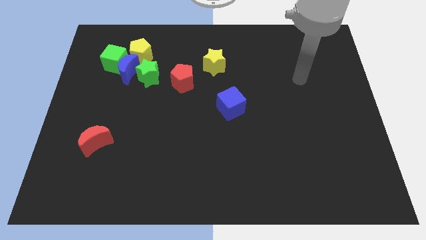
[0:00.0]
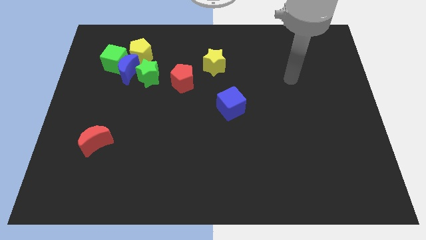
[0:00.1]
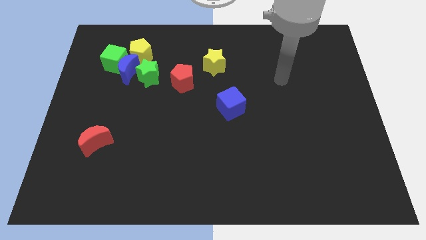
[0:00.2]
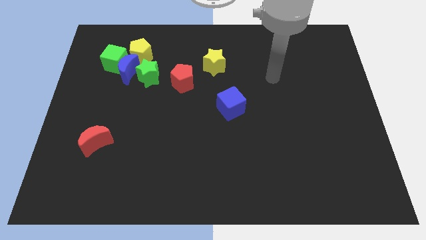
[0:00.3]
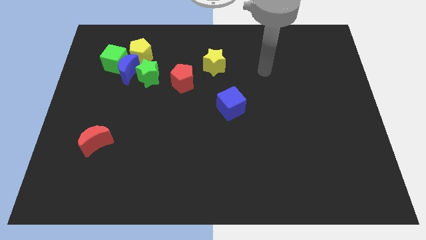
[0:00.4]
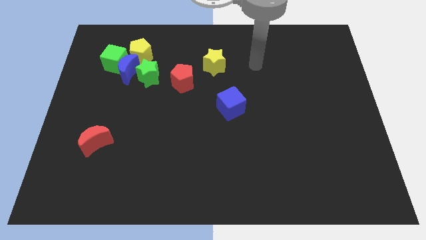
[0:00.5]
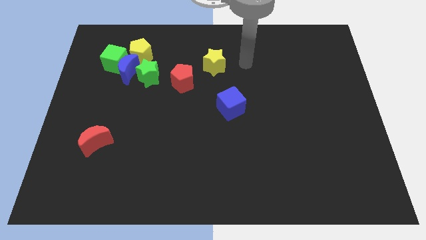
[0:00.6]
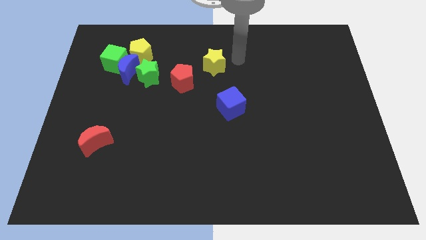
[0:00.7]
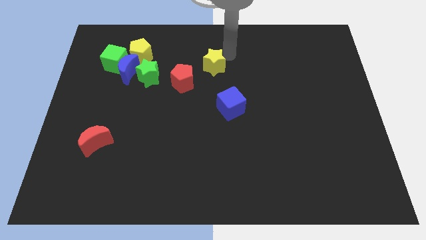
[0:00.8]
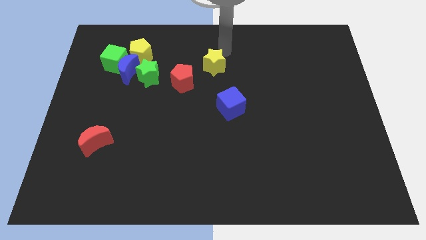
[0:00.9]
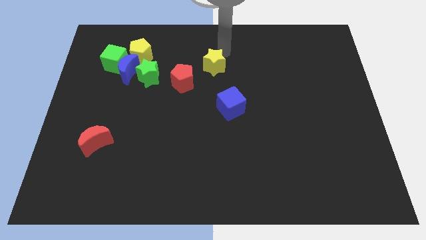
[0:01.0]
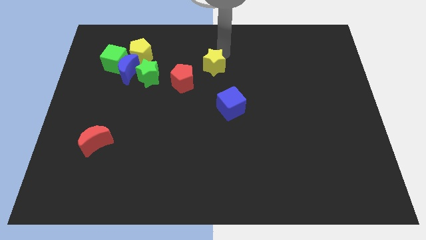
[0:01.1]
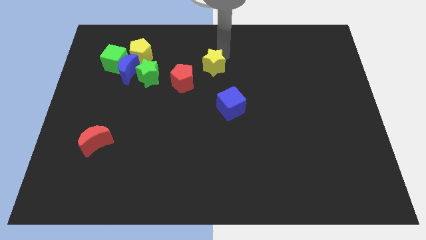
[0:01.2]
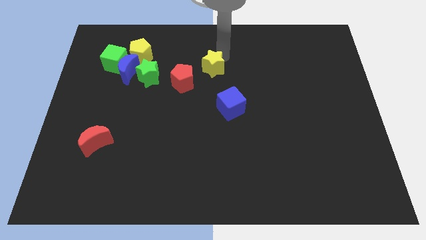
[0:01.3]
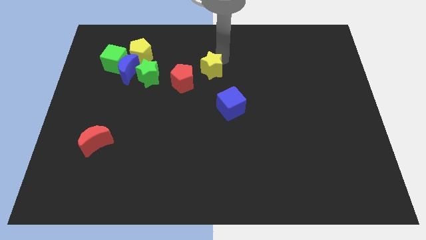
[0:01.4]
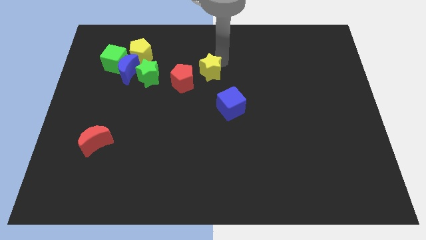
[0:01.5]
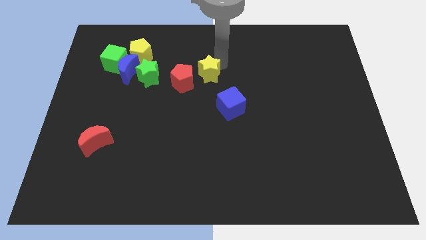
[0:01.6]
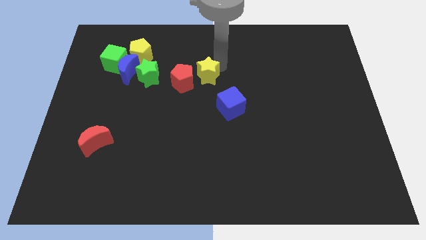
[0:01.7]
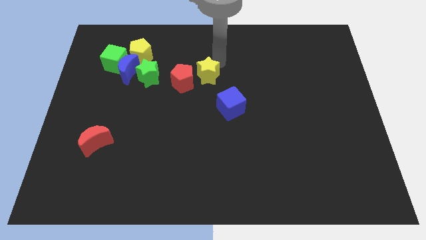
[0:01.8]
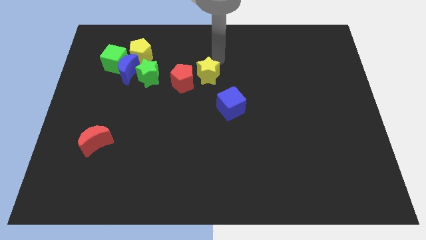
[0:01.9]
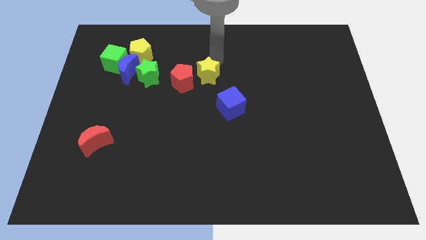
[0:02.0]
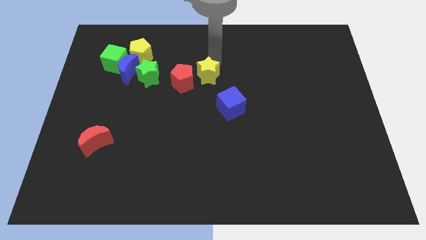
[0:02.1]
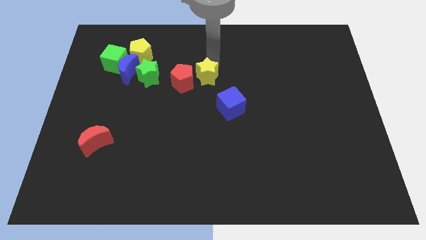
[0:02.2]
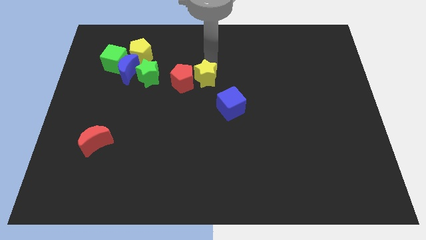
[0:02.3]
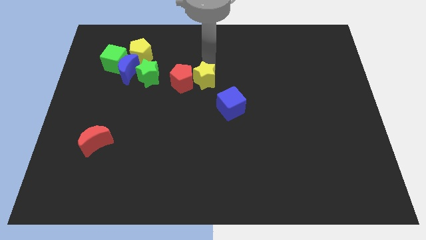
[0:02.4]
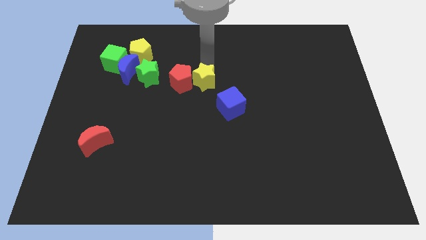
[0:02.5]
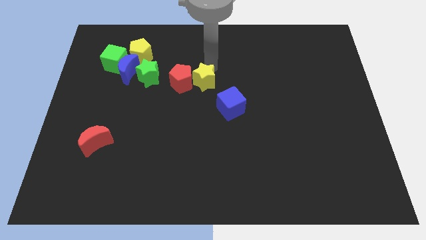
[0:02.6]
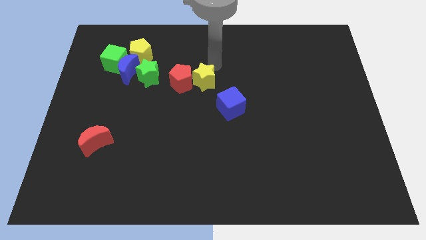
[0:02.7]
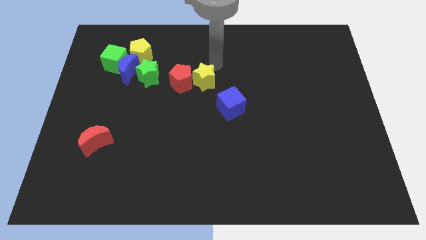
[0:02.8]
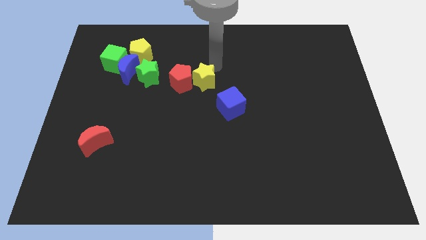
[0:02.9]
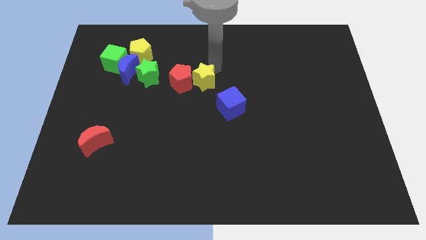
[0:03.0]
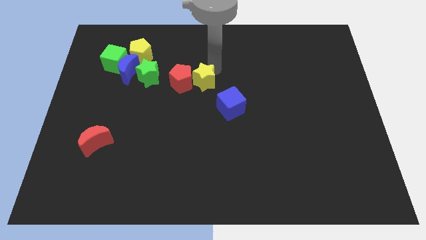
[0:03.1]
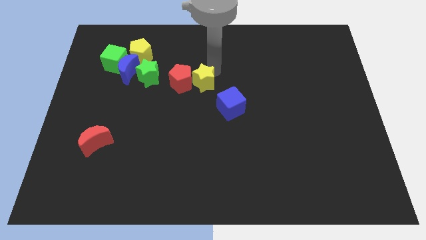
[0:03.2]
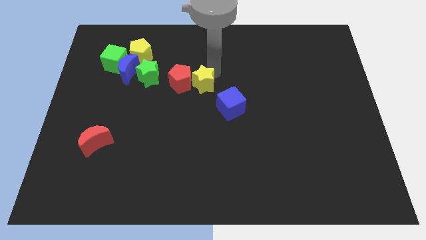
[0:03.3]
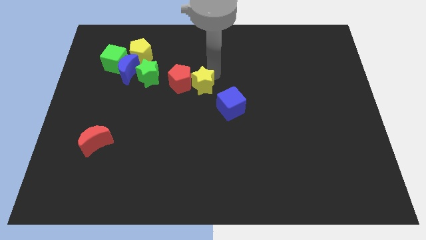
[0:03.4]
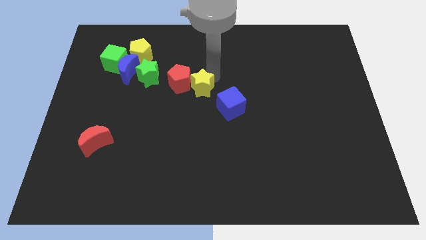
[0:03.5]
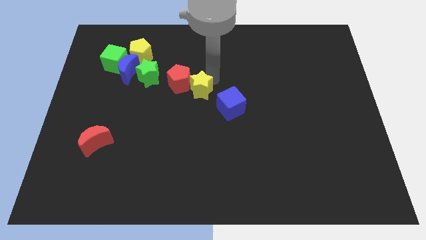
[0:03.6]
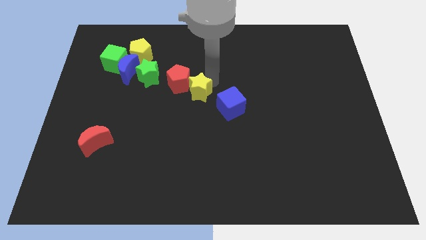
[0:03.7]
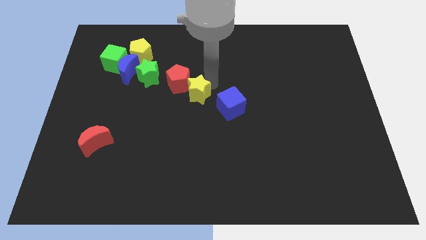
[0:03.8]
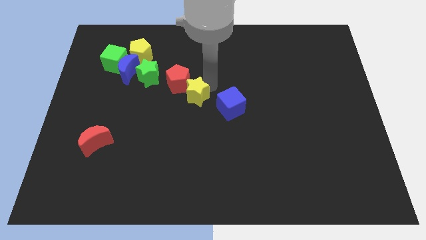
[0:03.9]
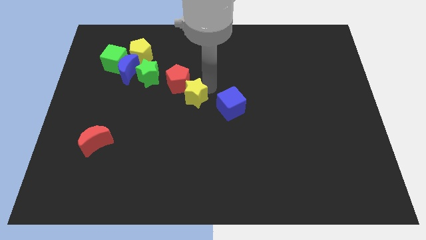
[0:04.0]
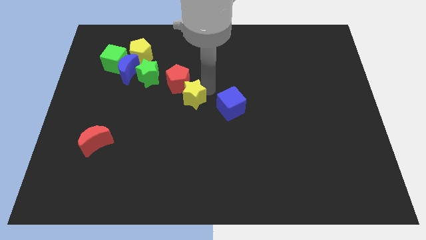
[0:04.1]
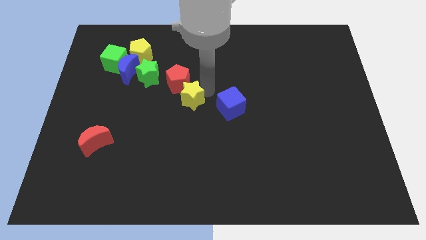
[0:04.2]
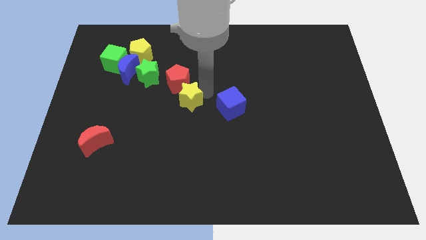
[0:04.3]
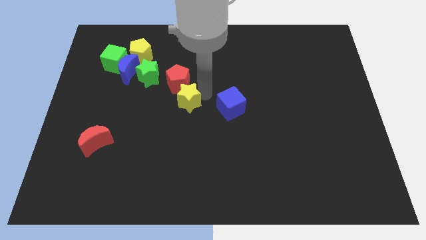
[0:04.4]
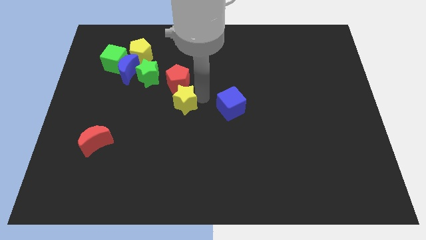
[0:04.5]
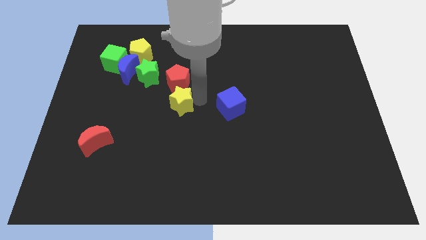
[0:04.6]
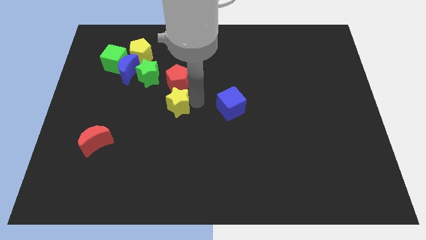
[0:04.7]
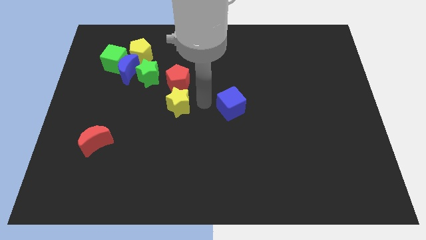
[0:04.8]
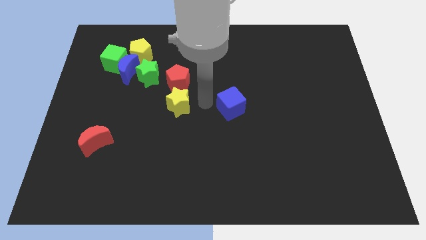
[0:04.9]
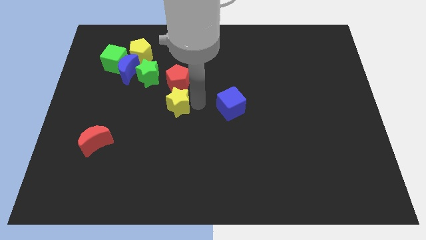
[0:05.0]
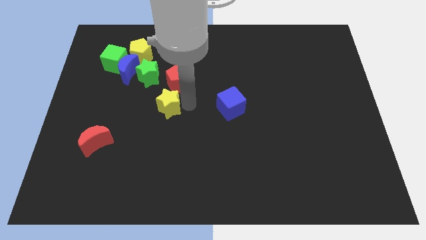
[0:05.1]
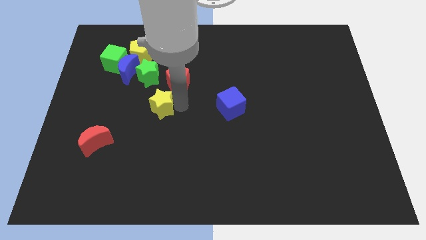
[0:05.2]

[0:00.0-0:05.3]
push the yellow star to the bottom side of the green star

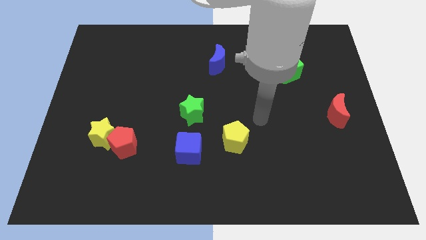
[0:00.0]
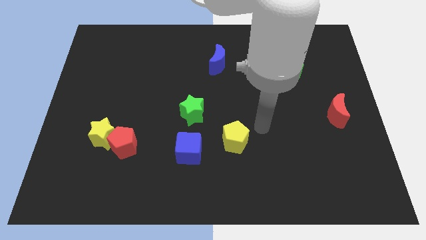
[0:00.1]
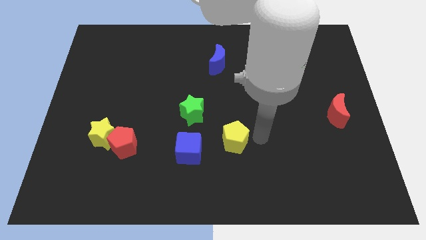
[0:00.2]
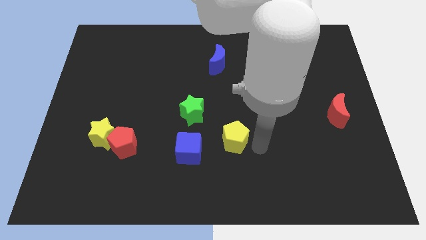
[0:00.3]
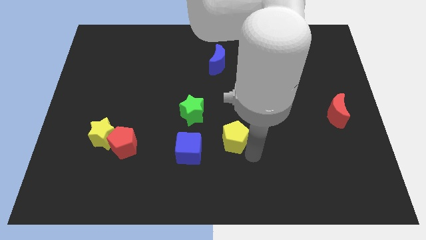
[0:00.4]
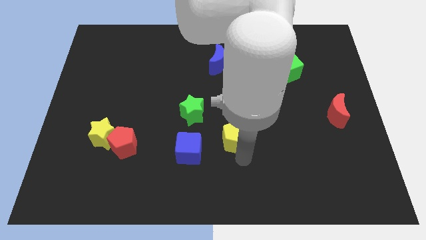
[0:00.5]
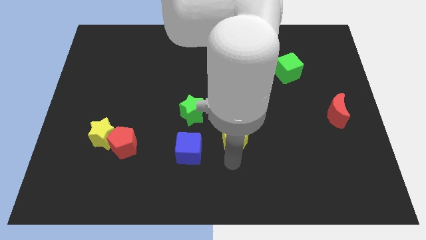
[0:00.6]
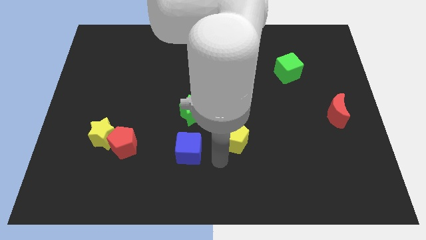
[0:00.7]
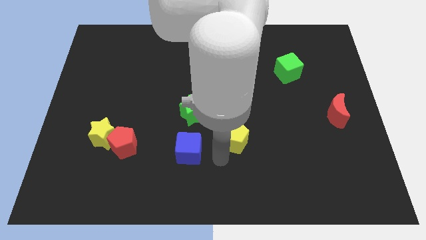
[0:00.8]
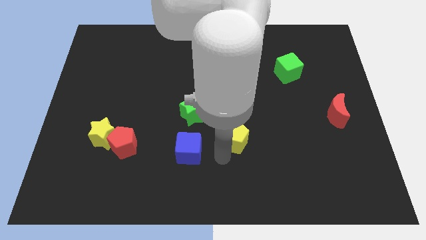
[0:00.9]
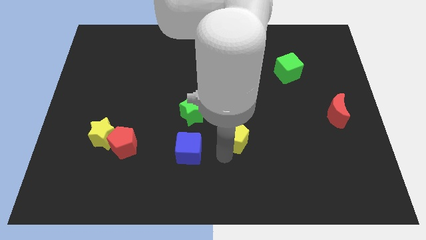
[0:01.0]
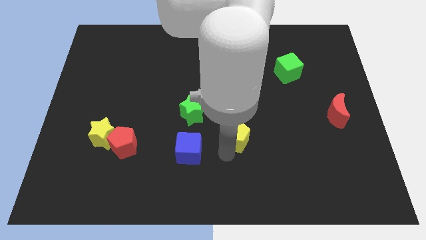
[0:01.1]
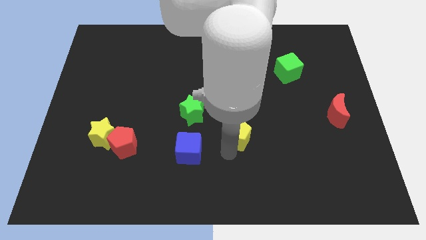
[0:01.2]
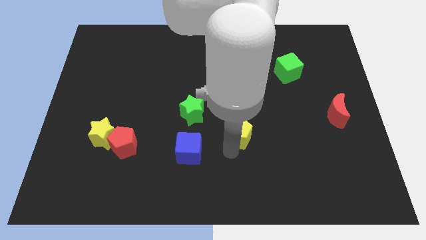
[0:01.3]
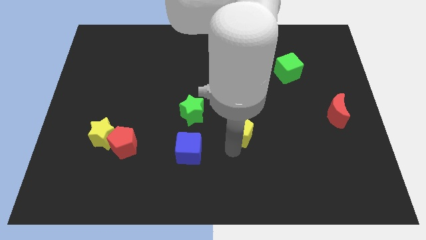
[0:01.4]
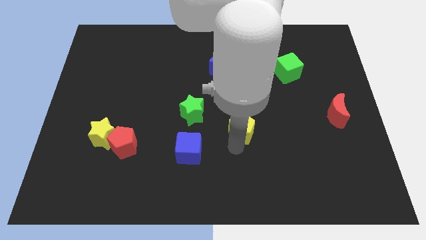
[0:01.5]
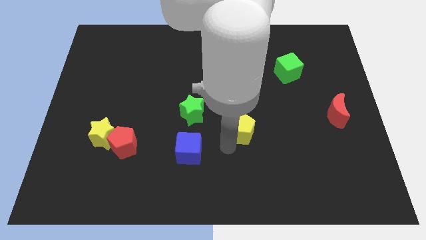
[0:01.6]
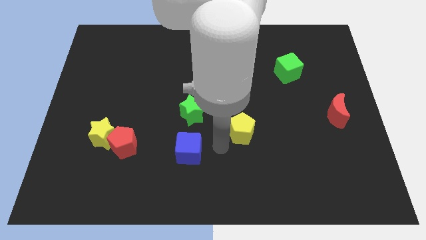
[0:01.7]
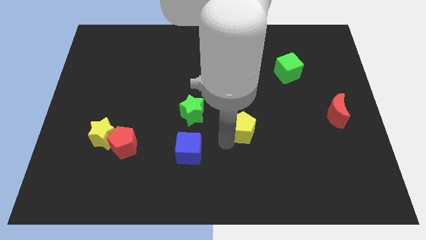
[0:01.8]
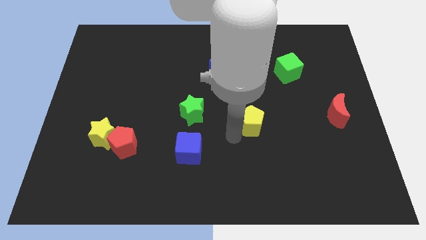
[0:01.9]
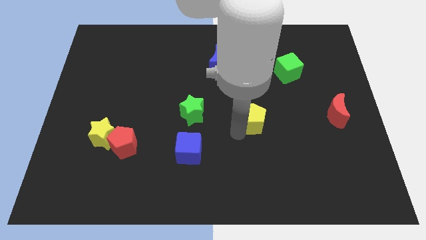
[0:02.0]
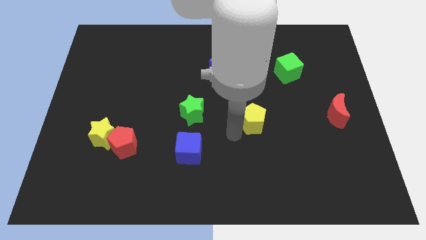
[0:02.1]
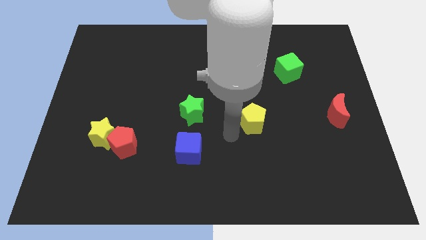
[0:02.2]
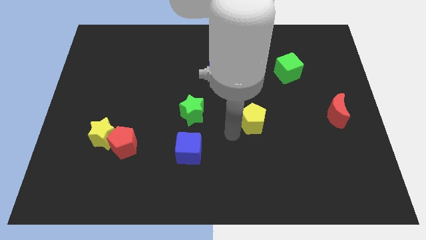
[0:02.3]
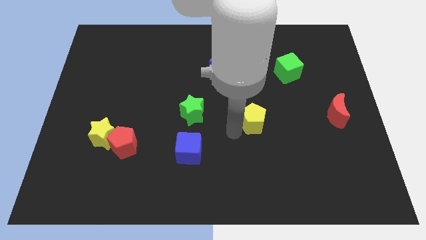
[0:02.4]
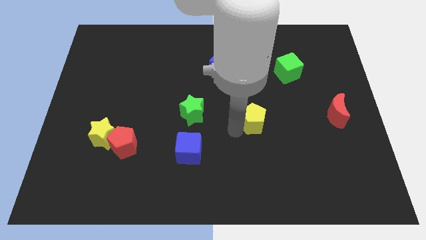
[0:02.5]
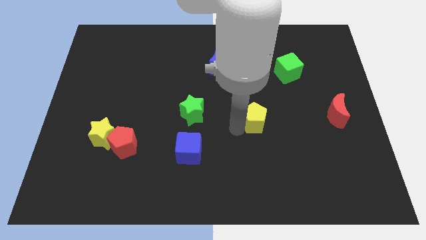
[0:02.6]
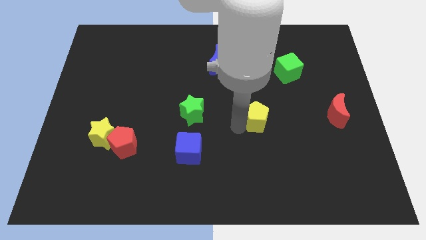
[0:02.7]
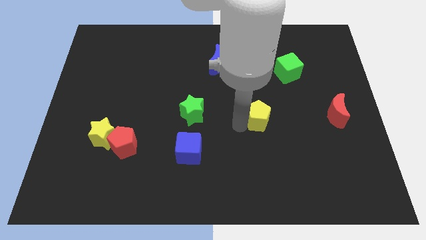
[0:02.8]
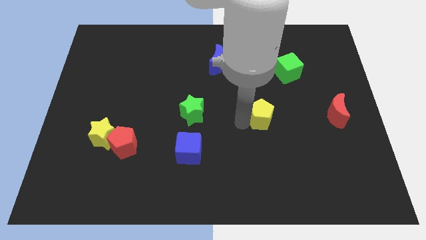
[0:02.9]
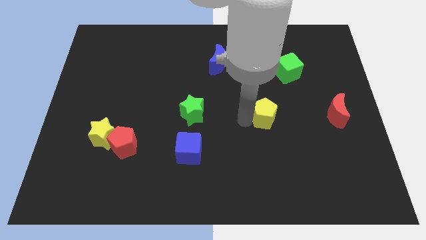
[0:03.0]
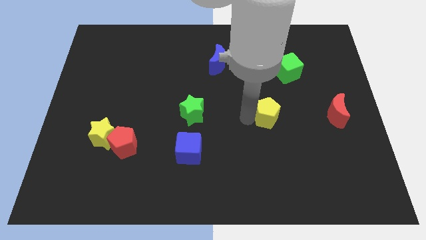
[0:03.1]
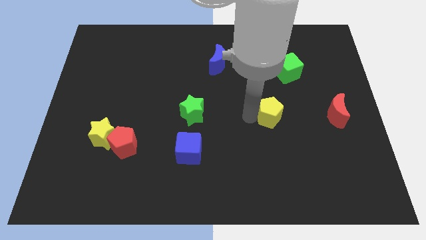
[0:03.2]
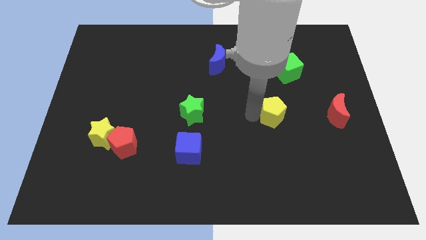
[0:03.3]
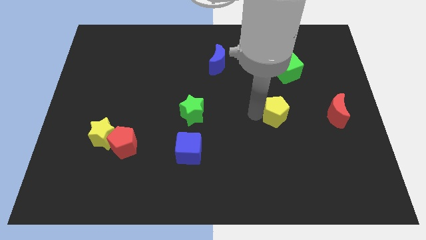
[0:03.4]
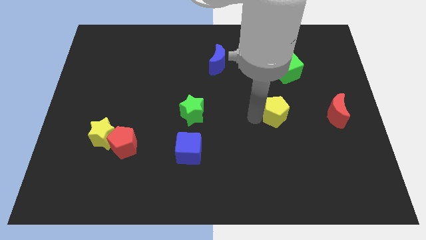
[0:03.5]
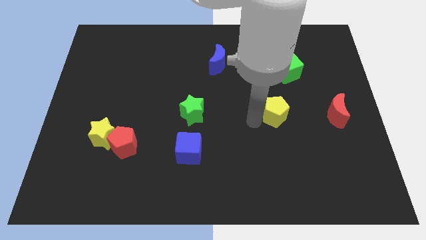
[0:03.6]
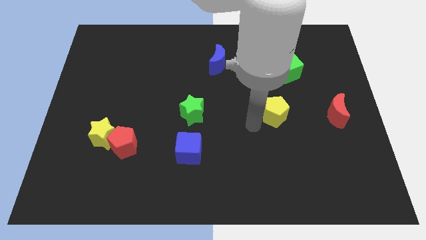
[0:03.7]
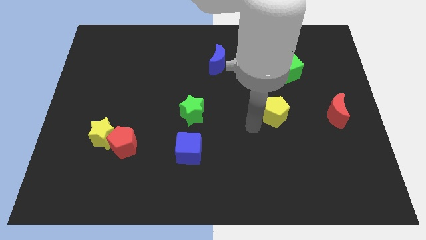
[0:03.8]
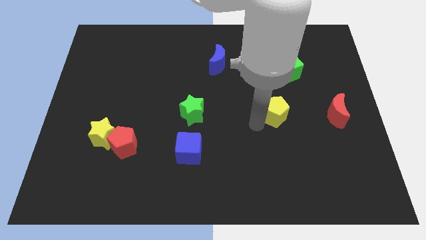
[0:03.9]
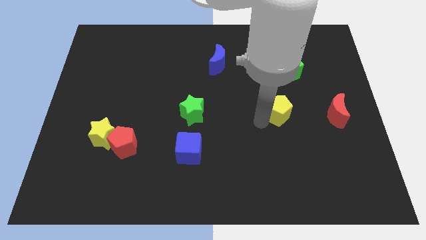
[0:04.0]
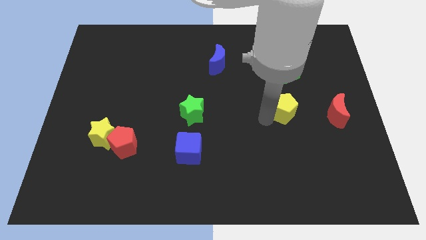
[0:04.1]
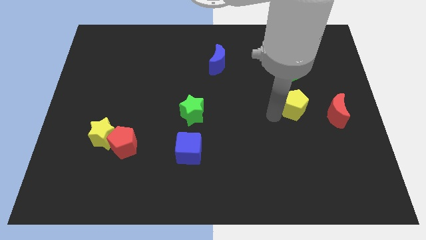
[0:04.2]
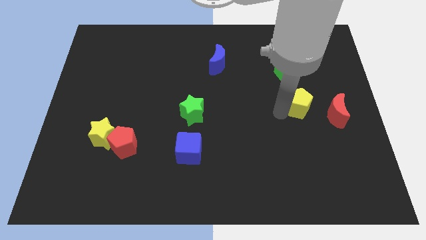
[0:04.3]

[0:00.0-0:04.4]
put the yellow pentagon to the top left side of the red moon
